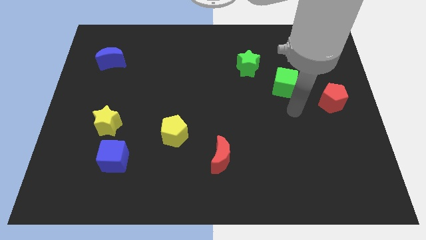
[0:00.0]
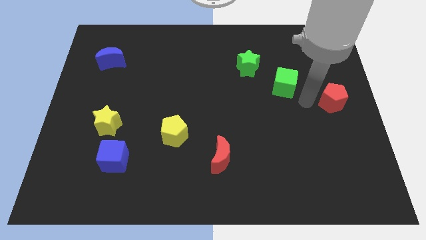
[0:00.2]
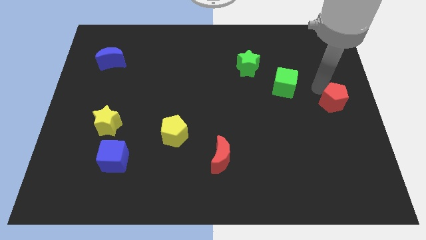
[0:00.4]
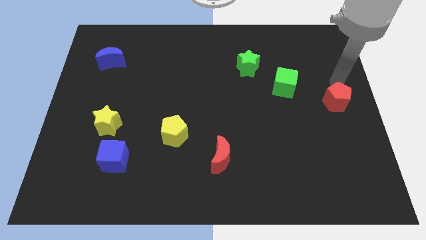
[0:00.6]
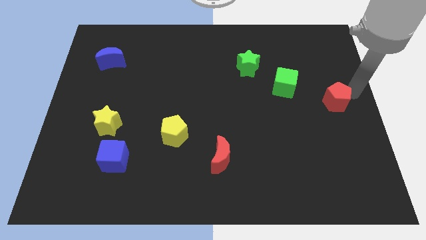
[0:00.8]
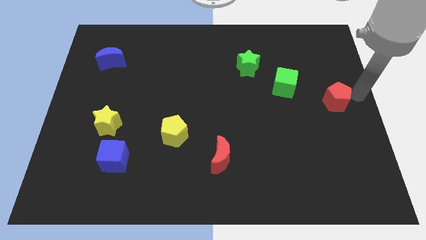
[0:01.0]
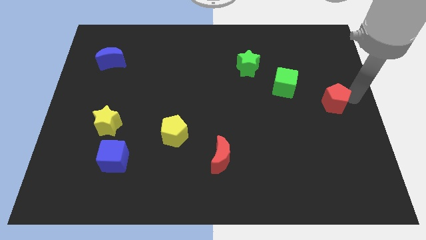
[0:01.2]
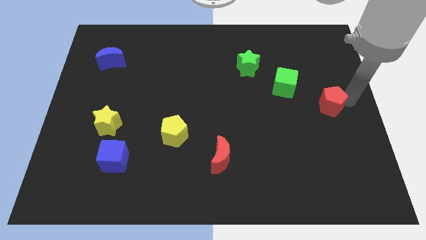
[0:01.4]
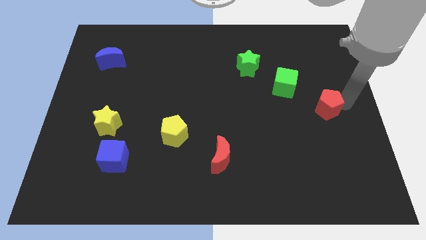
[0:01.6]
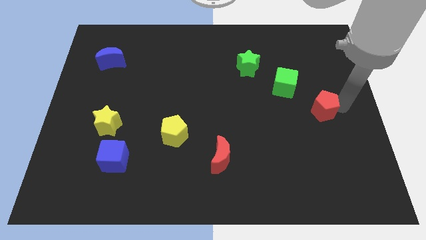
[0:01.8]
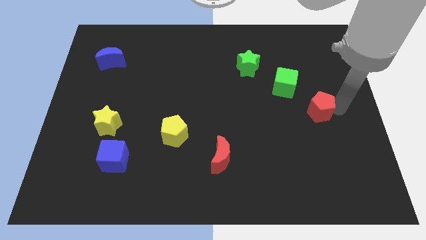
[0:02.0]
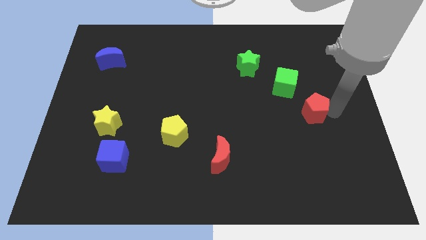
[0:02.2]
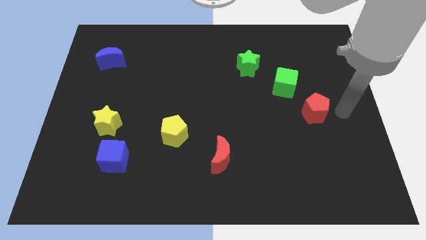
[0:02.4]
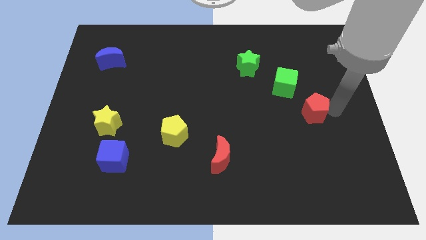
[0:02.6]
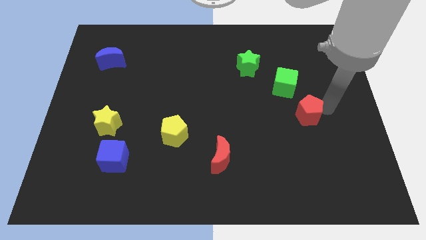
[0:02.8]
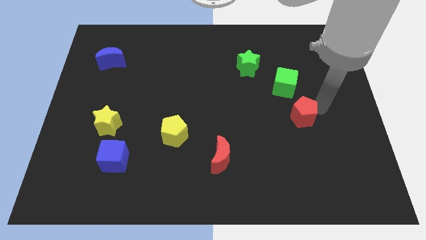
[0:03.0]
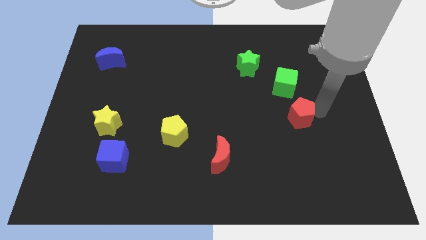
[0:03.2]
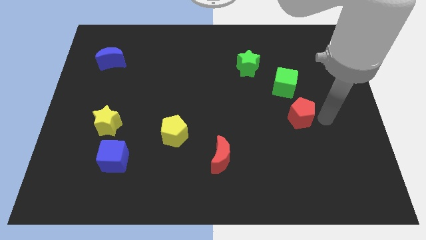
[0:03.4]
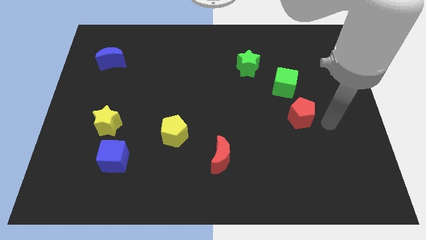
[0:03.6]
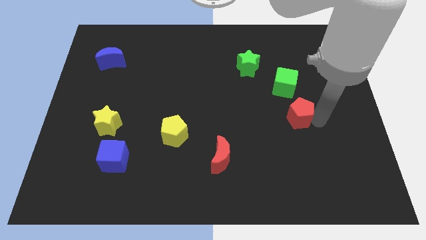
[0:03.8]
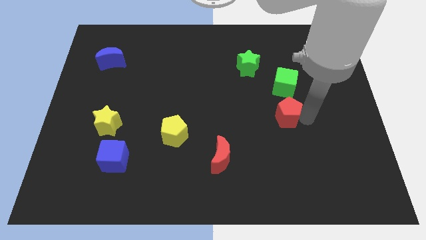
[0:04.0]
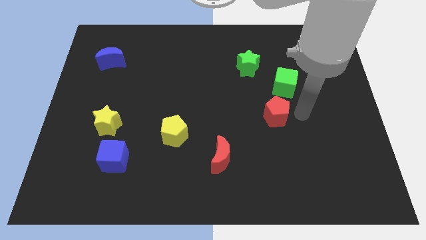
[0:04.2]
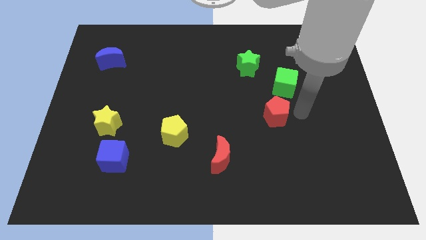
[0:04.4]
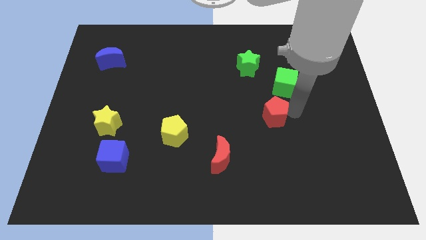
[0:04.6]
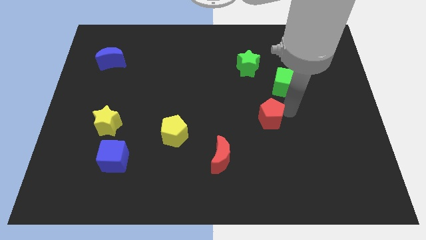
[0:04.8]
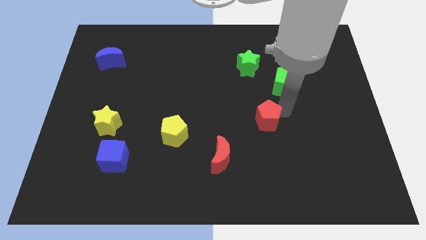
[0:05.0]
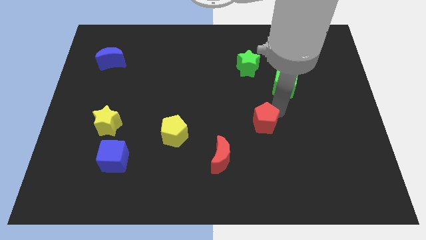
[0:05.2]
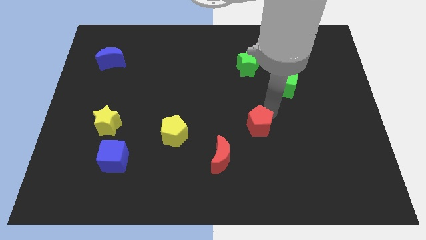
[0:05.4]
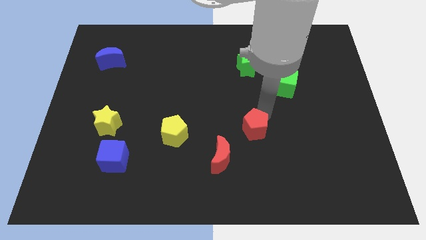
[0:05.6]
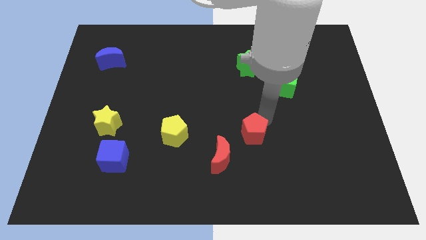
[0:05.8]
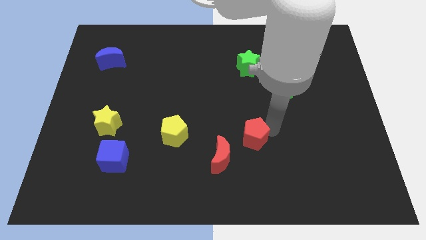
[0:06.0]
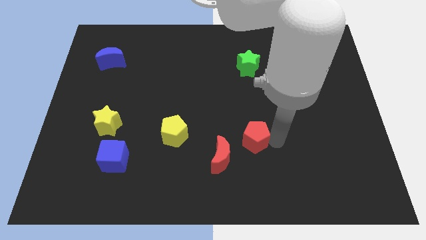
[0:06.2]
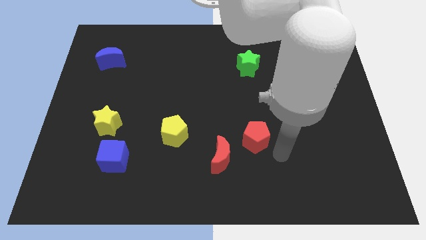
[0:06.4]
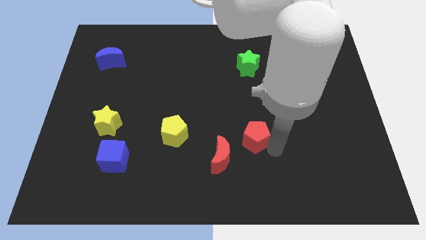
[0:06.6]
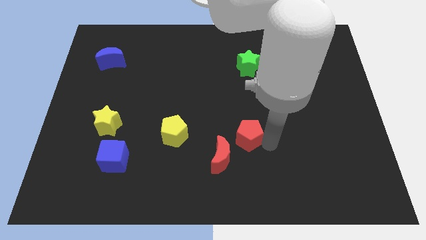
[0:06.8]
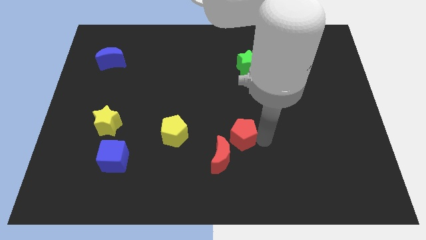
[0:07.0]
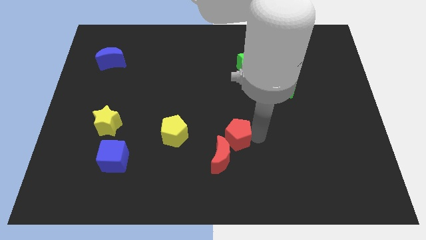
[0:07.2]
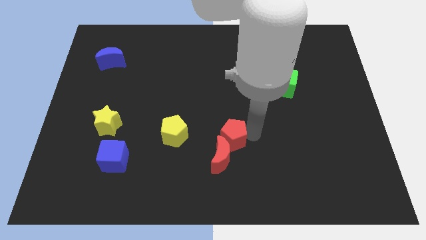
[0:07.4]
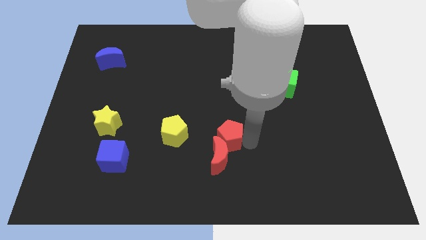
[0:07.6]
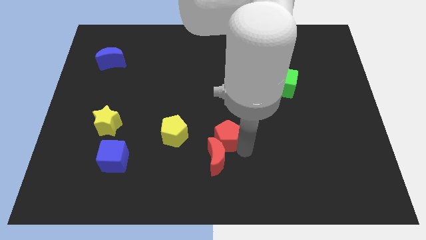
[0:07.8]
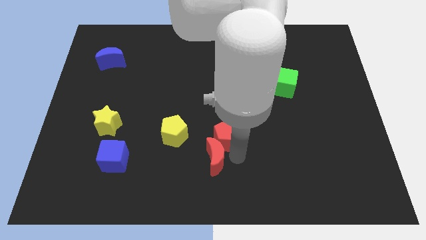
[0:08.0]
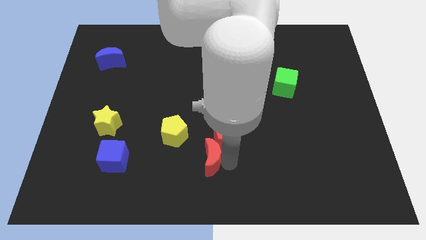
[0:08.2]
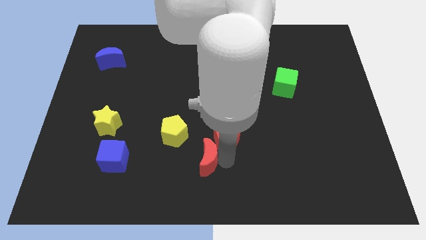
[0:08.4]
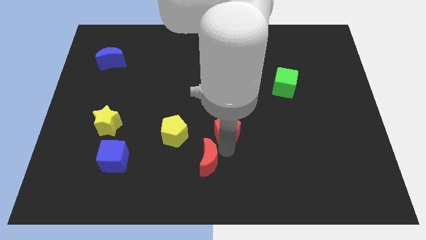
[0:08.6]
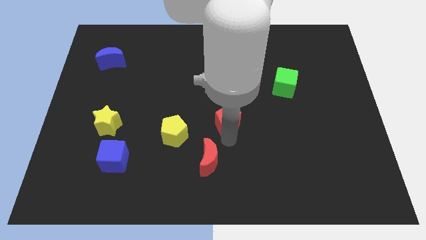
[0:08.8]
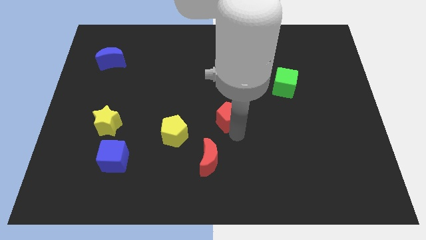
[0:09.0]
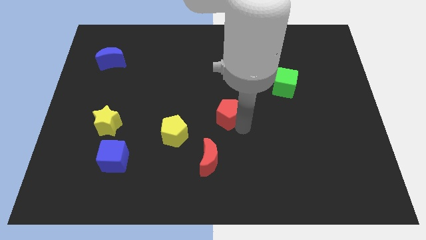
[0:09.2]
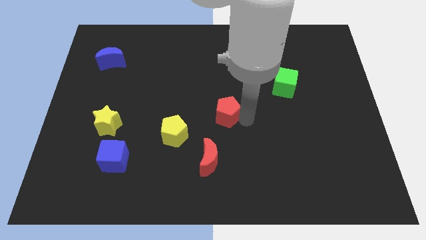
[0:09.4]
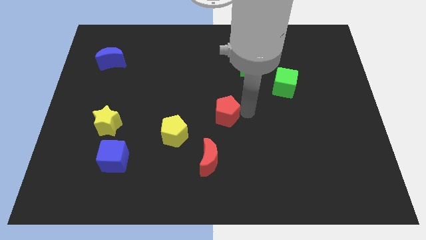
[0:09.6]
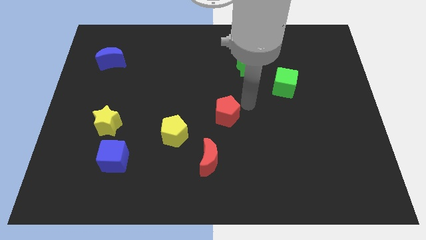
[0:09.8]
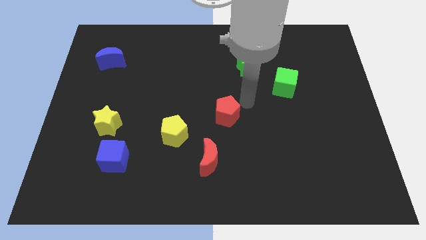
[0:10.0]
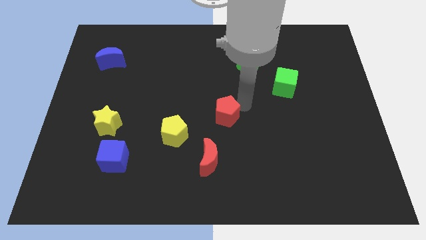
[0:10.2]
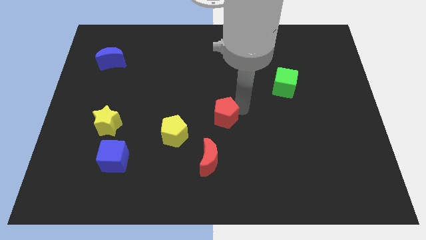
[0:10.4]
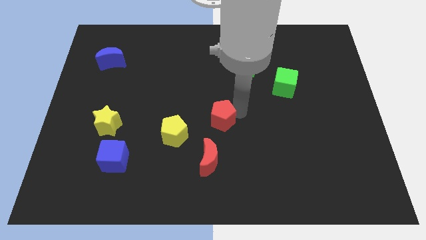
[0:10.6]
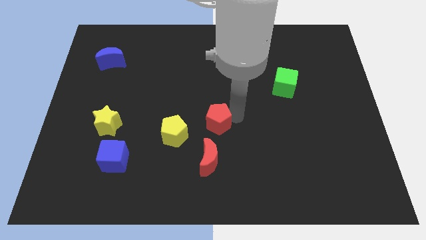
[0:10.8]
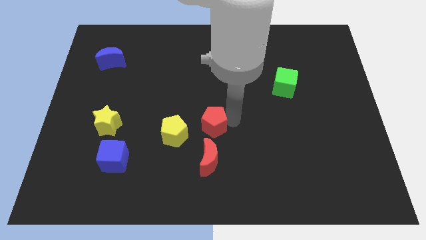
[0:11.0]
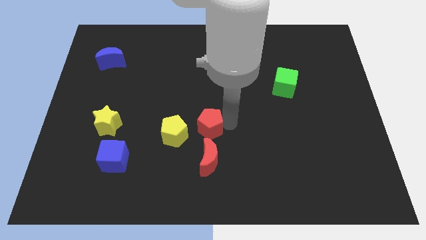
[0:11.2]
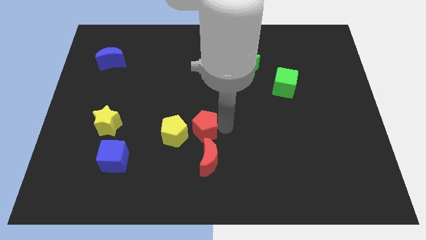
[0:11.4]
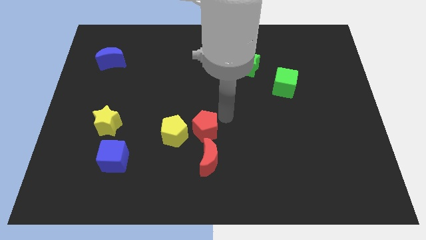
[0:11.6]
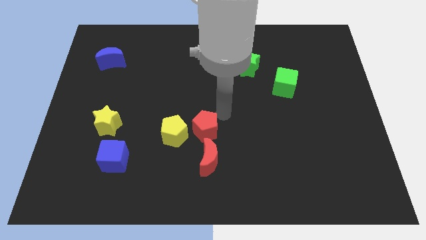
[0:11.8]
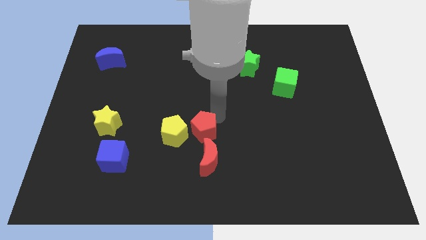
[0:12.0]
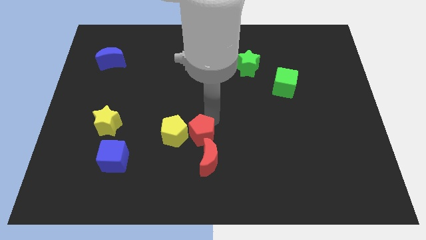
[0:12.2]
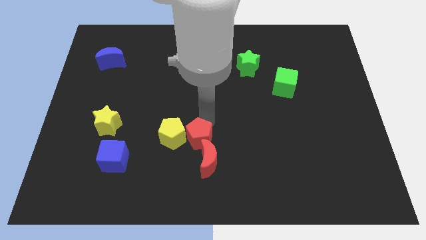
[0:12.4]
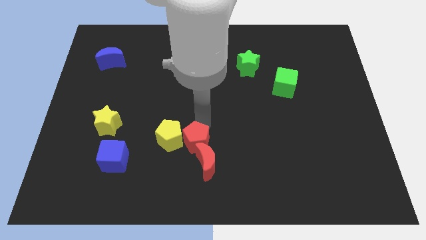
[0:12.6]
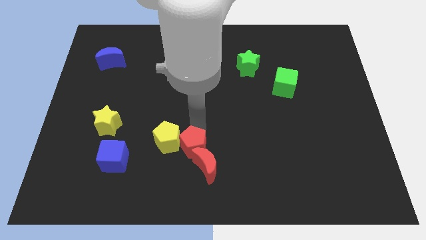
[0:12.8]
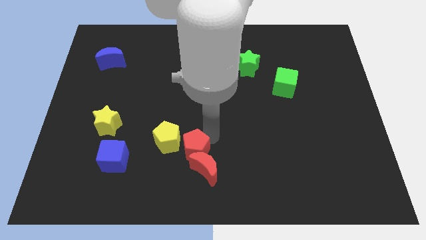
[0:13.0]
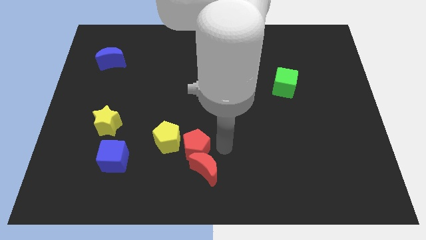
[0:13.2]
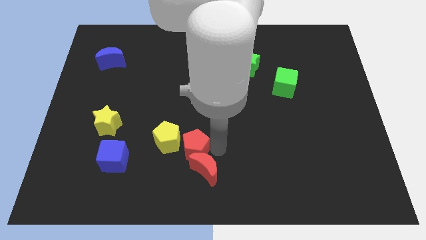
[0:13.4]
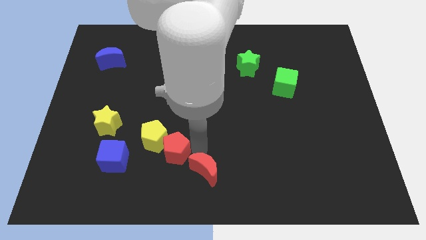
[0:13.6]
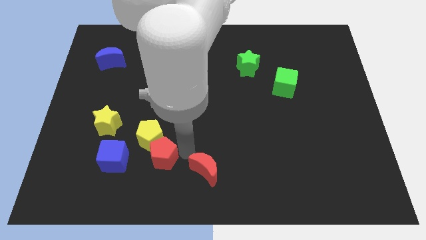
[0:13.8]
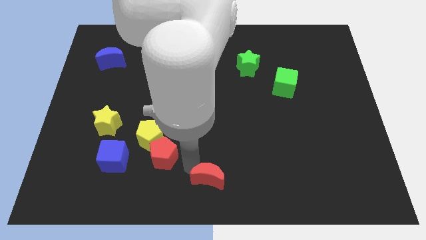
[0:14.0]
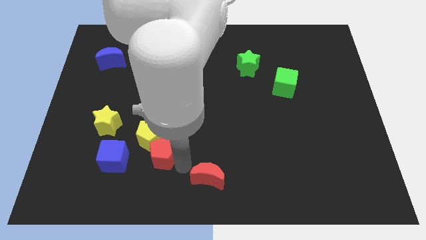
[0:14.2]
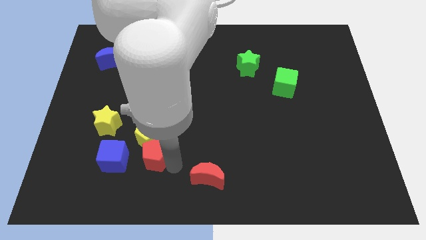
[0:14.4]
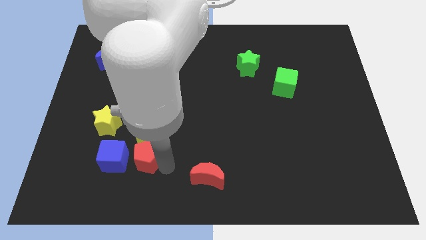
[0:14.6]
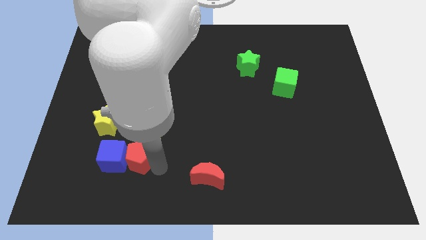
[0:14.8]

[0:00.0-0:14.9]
push the red pentagon diagonally down and to the right of the yellow star
